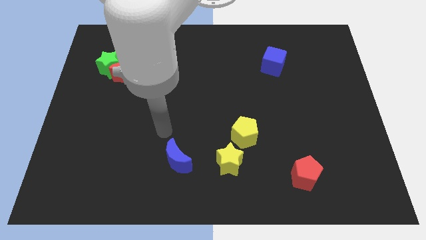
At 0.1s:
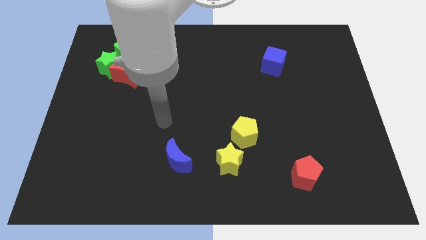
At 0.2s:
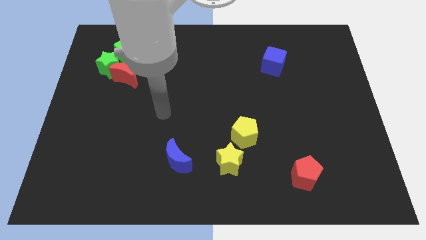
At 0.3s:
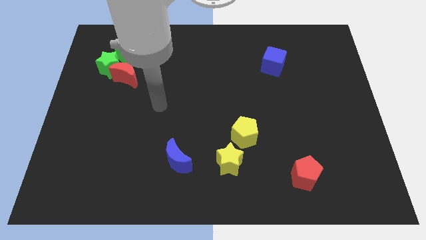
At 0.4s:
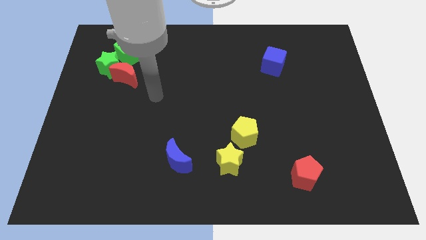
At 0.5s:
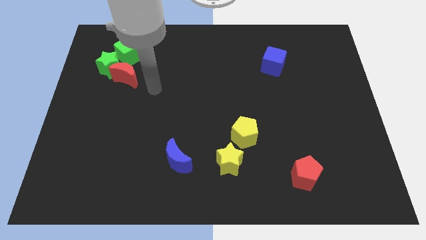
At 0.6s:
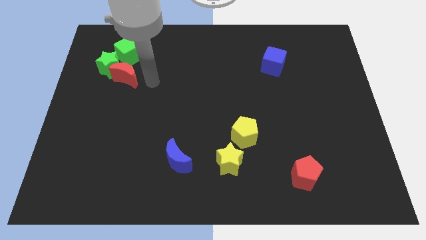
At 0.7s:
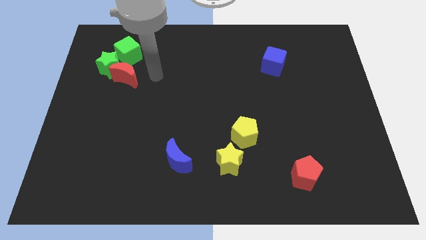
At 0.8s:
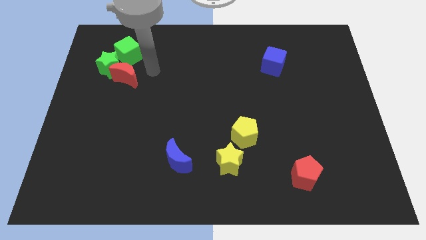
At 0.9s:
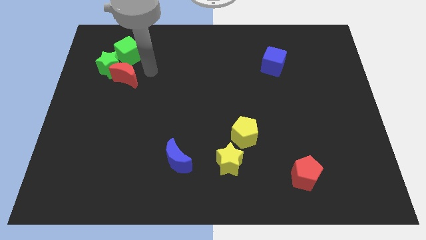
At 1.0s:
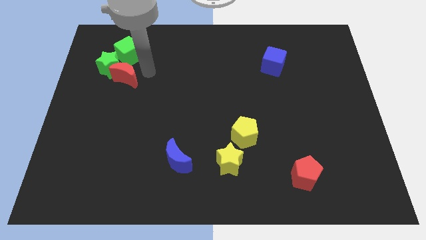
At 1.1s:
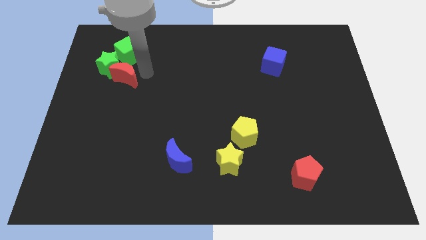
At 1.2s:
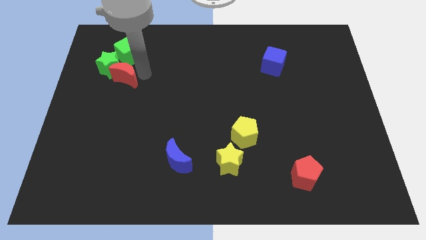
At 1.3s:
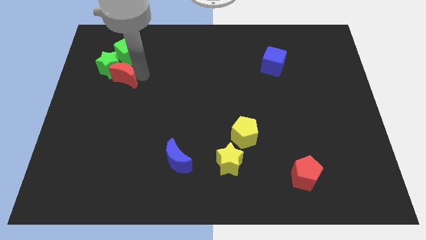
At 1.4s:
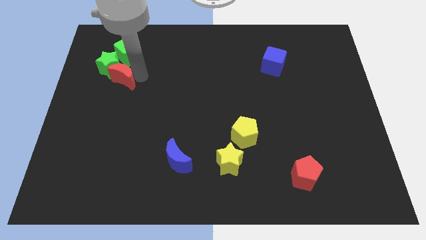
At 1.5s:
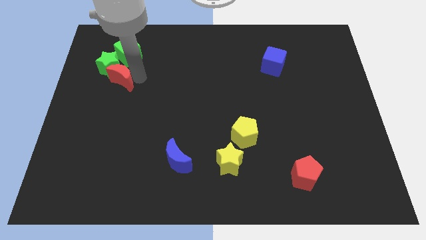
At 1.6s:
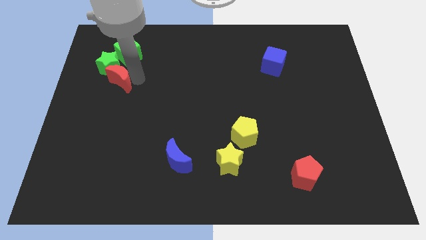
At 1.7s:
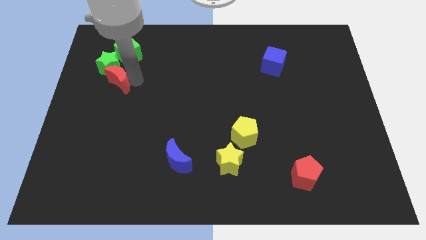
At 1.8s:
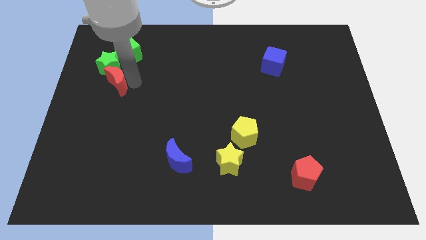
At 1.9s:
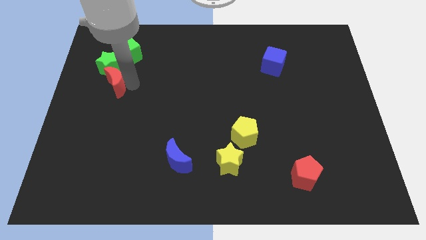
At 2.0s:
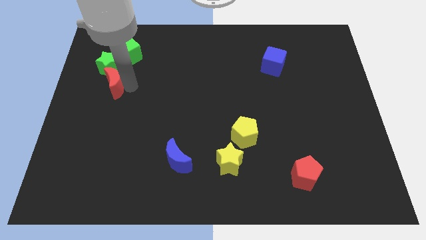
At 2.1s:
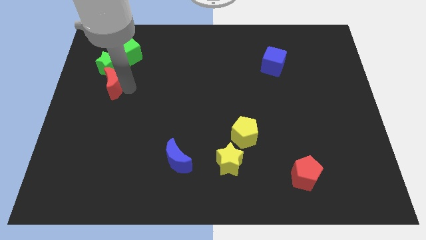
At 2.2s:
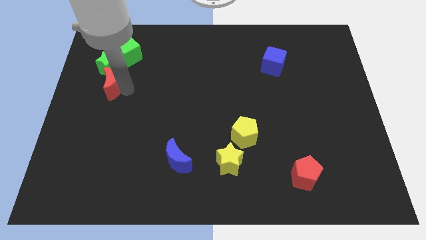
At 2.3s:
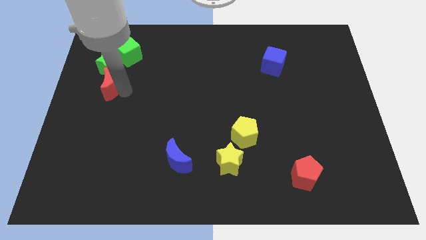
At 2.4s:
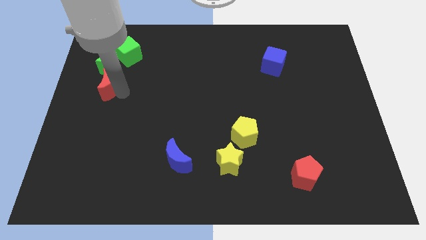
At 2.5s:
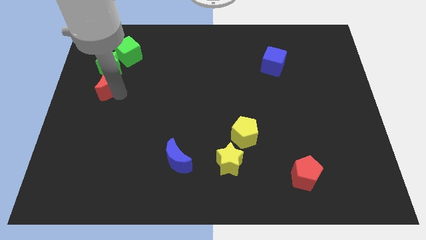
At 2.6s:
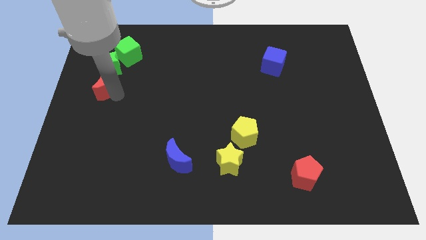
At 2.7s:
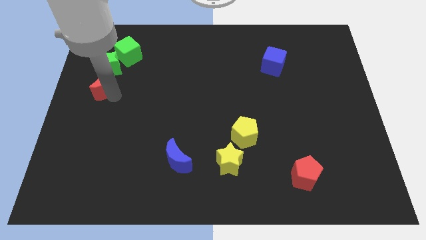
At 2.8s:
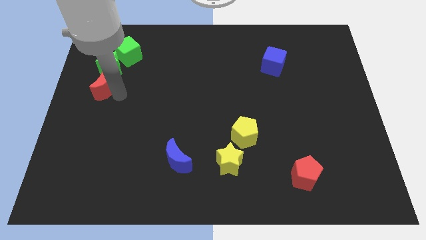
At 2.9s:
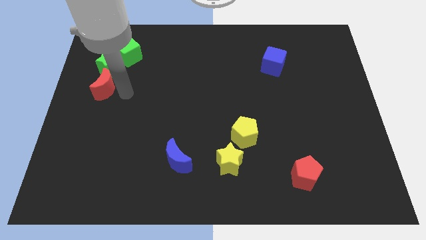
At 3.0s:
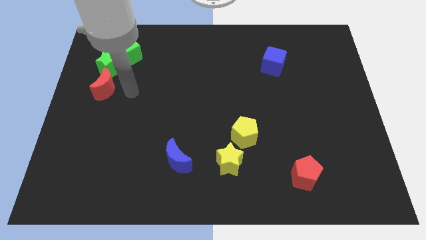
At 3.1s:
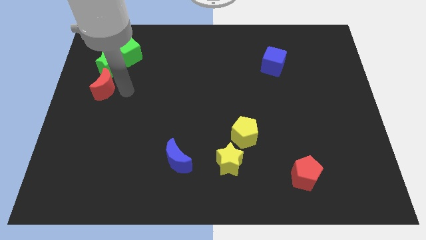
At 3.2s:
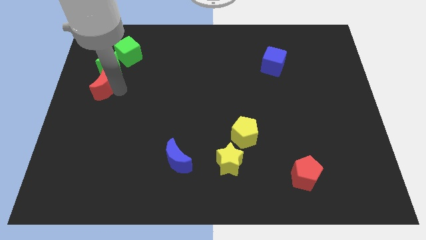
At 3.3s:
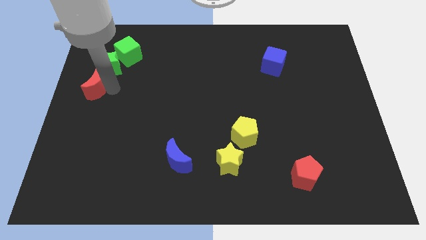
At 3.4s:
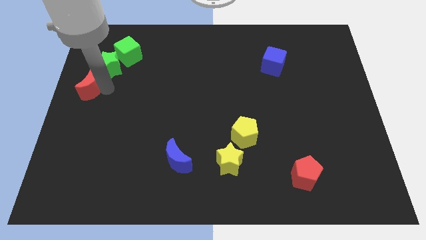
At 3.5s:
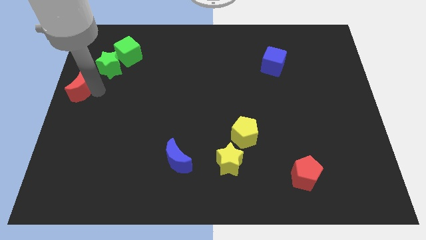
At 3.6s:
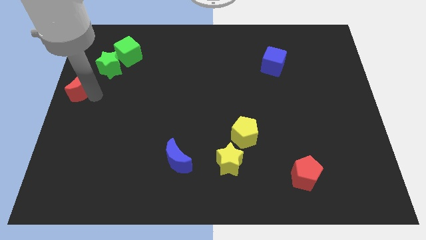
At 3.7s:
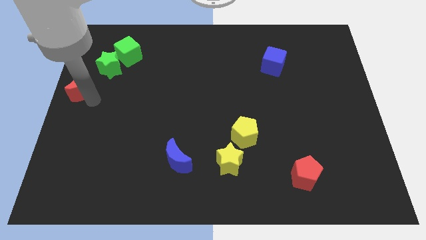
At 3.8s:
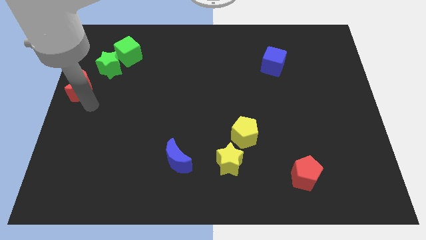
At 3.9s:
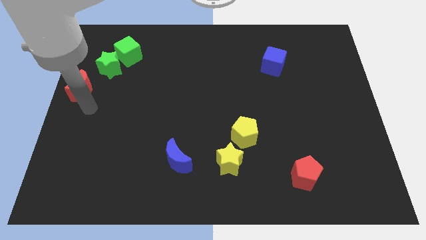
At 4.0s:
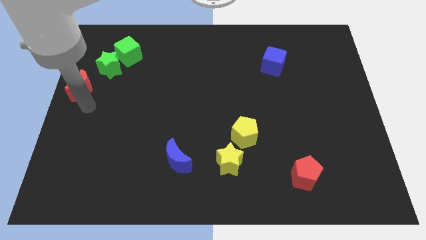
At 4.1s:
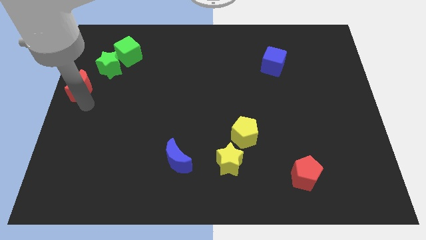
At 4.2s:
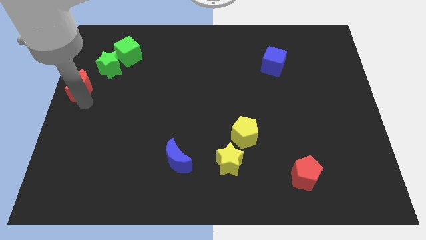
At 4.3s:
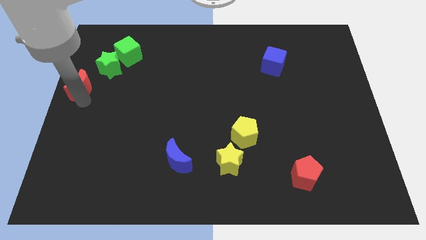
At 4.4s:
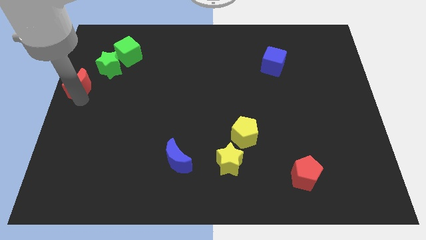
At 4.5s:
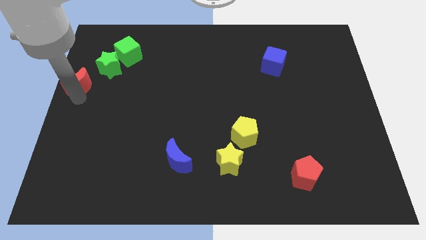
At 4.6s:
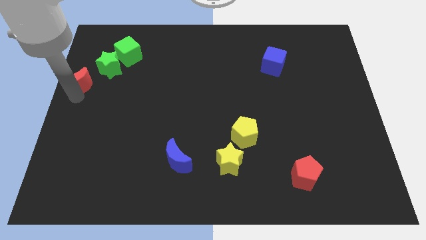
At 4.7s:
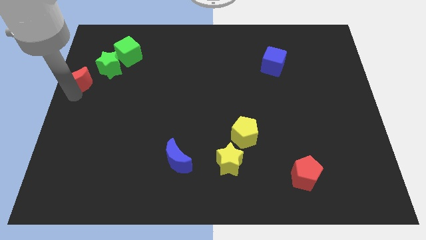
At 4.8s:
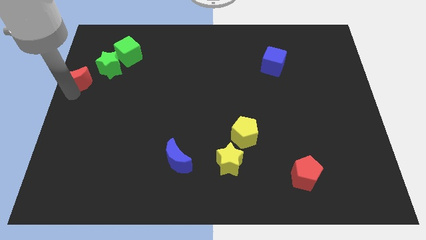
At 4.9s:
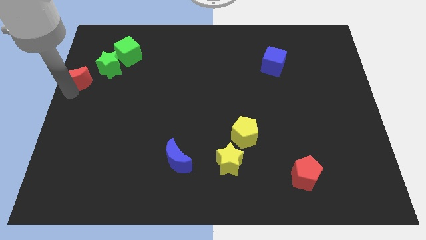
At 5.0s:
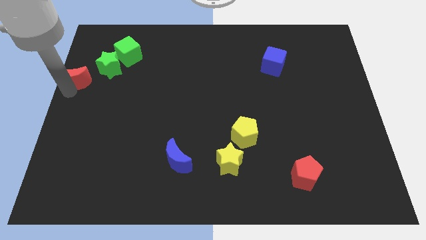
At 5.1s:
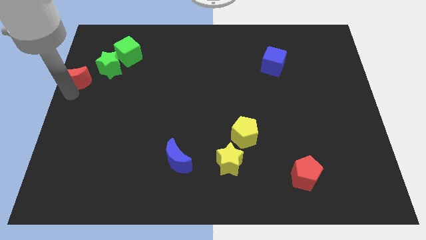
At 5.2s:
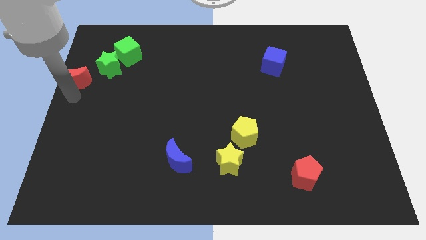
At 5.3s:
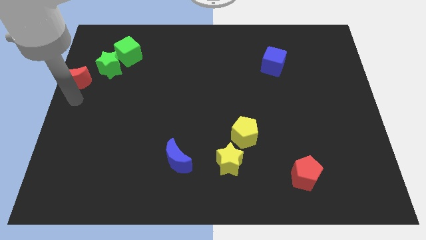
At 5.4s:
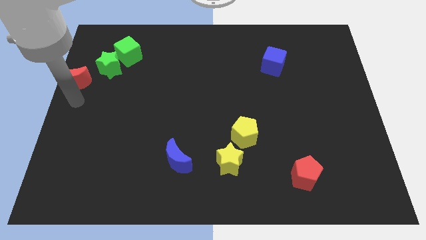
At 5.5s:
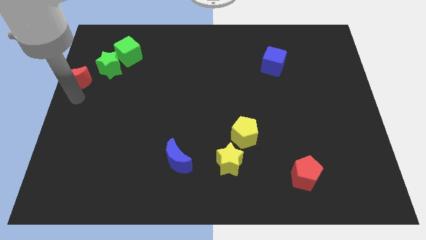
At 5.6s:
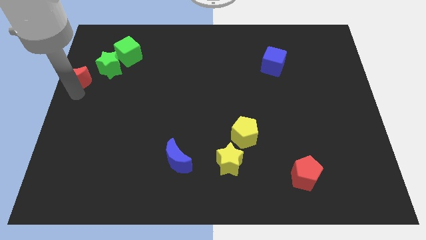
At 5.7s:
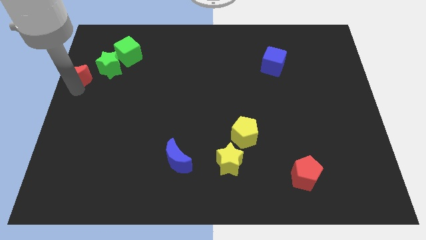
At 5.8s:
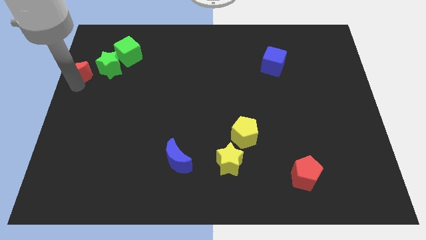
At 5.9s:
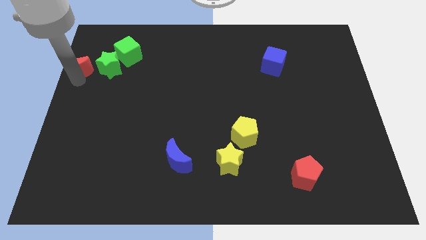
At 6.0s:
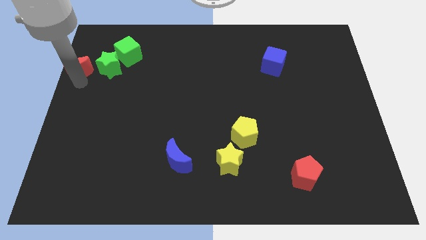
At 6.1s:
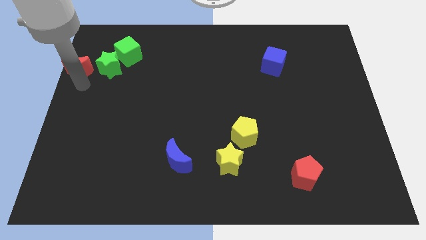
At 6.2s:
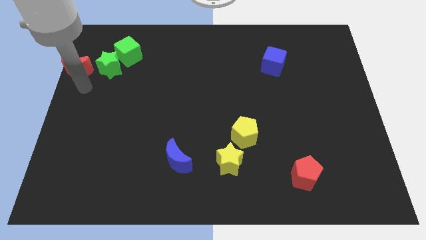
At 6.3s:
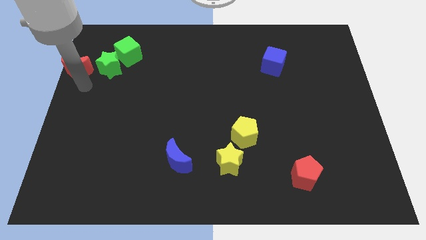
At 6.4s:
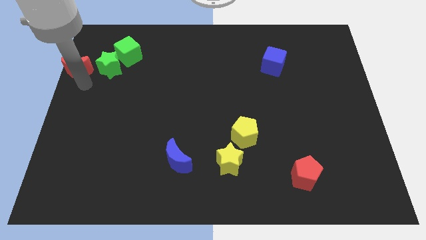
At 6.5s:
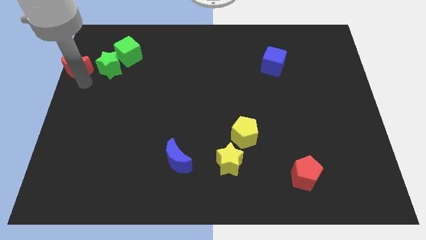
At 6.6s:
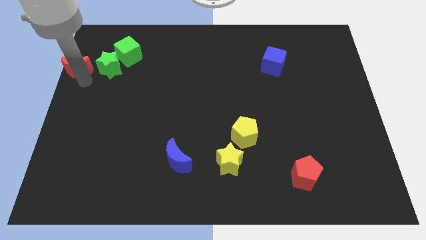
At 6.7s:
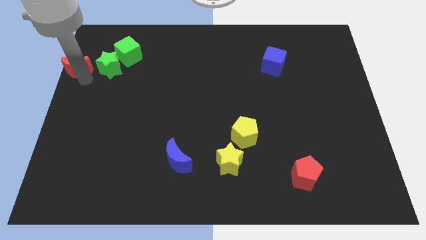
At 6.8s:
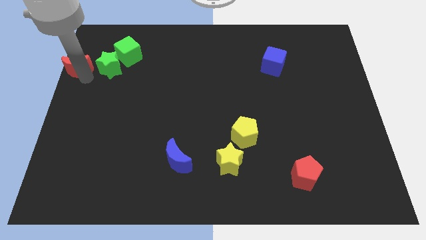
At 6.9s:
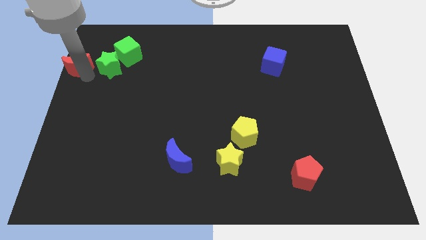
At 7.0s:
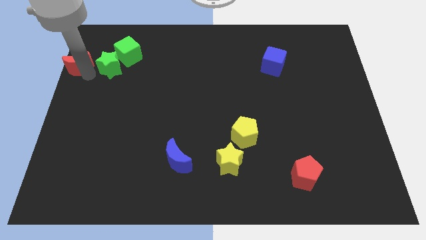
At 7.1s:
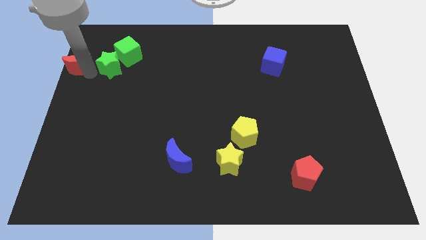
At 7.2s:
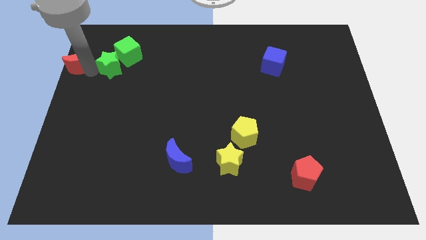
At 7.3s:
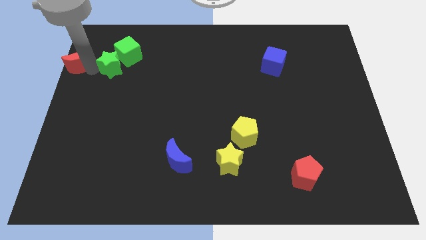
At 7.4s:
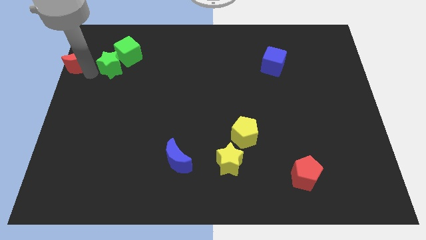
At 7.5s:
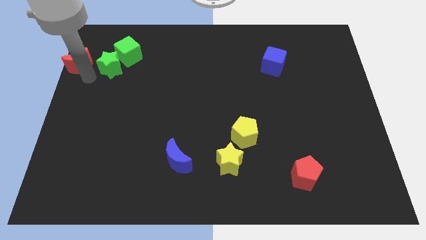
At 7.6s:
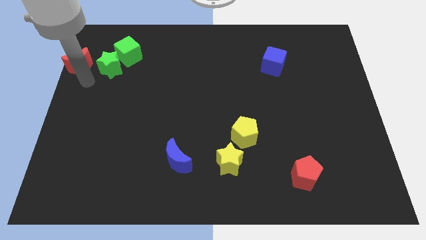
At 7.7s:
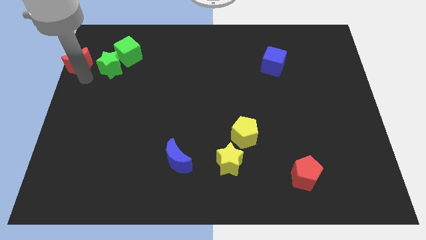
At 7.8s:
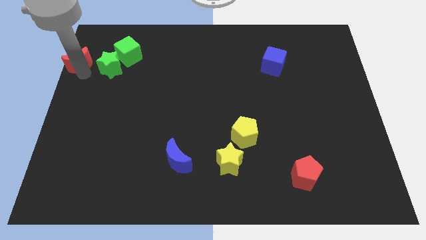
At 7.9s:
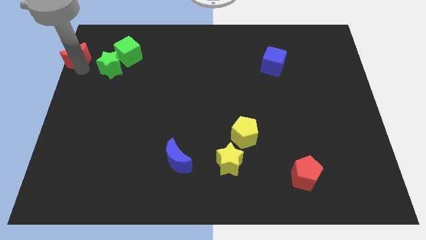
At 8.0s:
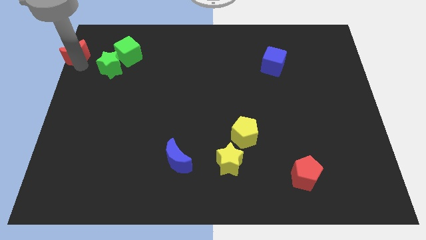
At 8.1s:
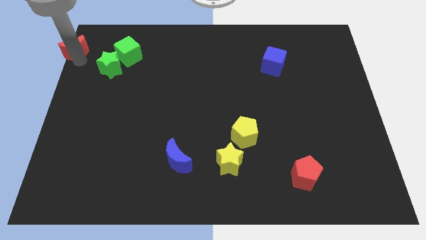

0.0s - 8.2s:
move the red moon to the top left

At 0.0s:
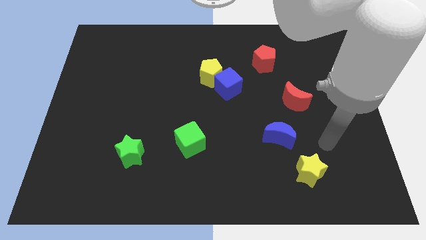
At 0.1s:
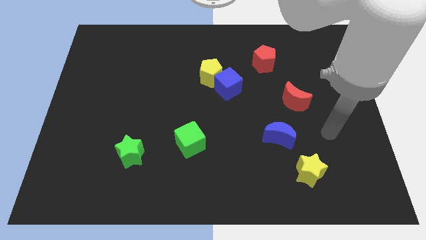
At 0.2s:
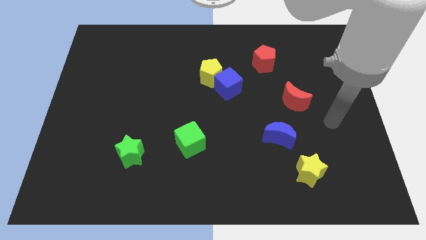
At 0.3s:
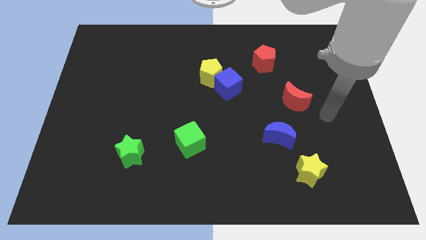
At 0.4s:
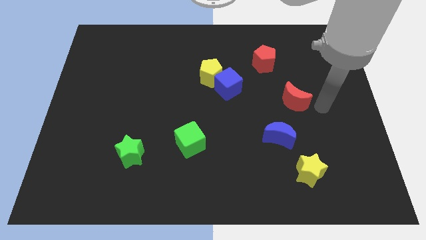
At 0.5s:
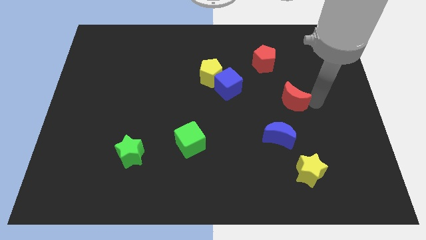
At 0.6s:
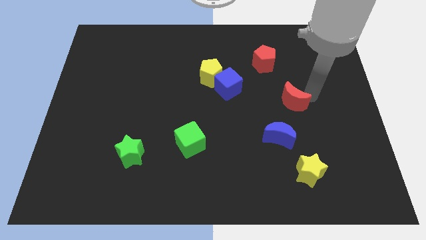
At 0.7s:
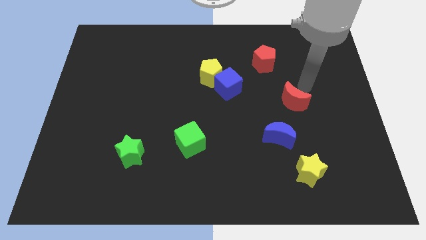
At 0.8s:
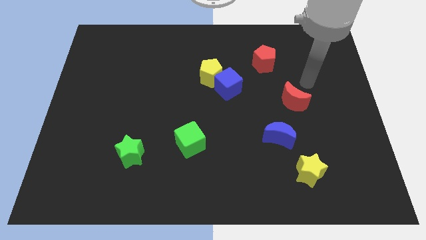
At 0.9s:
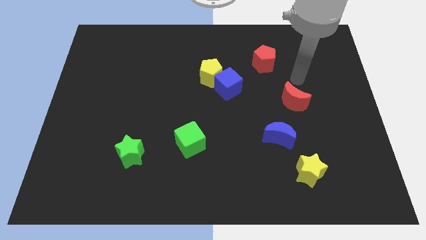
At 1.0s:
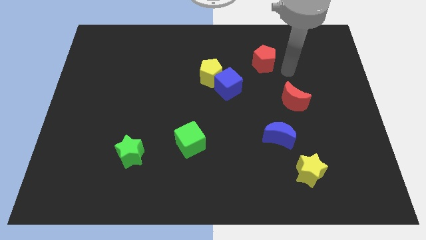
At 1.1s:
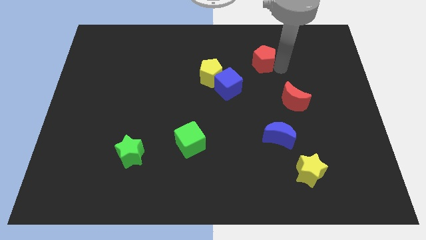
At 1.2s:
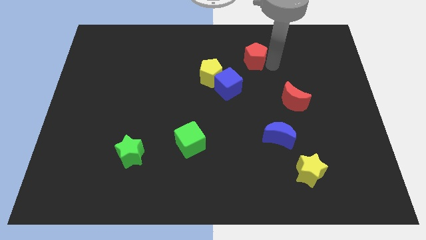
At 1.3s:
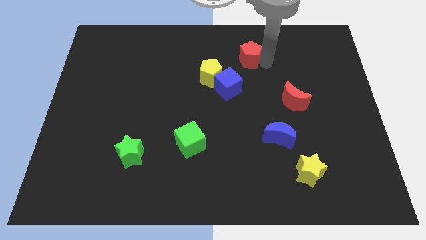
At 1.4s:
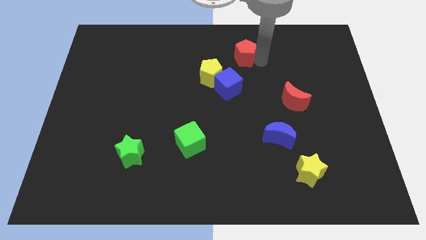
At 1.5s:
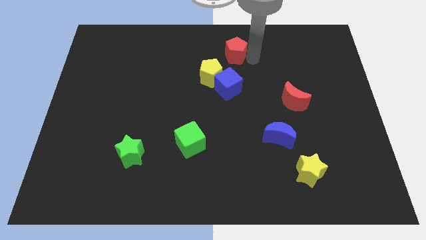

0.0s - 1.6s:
slide the red pentagon to the top
